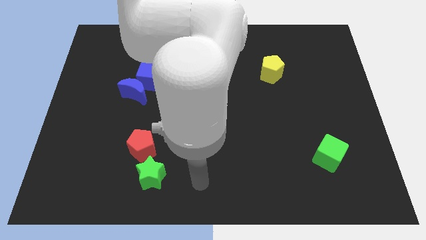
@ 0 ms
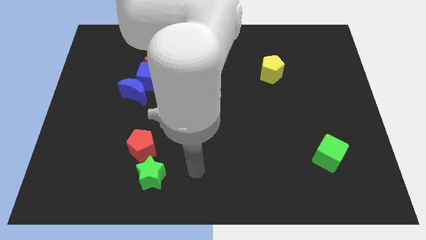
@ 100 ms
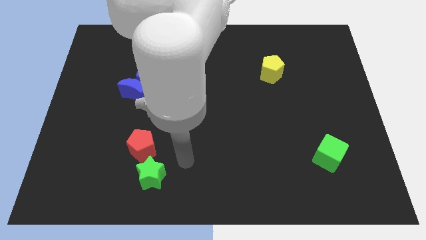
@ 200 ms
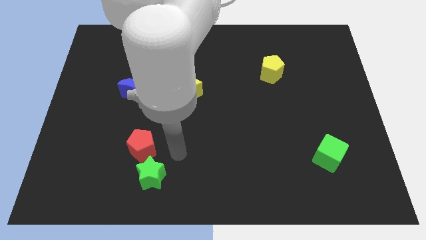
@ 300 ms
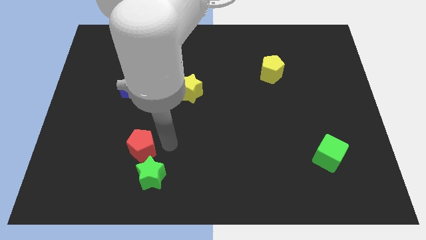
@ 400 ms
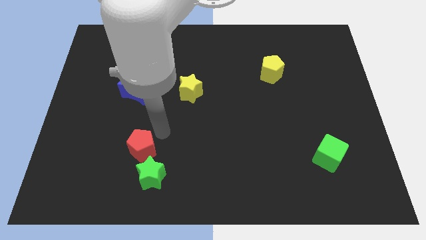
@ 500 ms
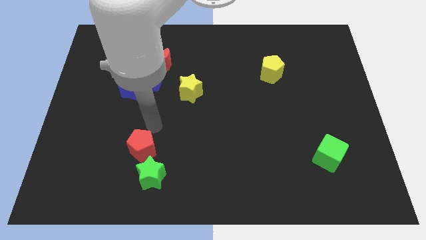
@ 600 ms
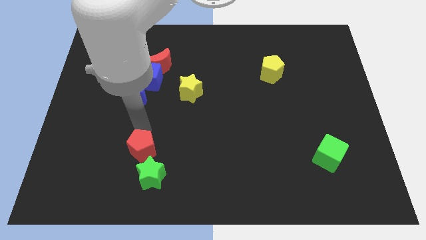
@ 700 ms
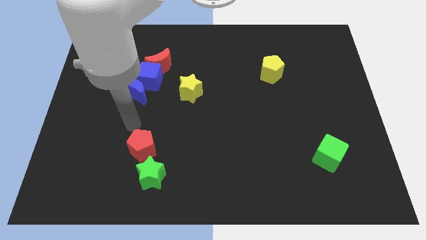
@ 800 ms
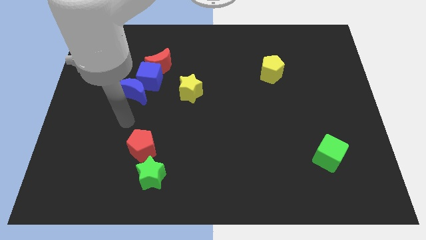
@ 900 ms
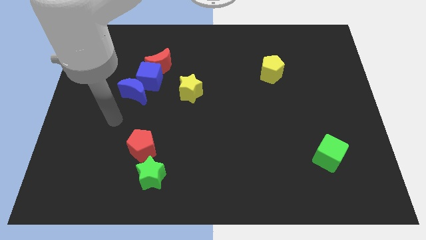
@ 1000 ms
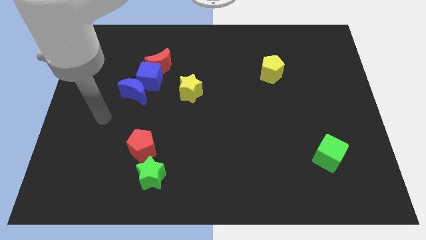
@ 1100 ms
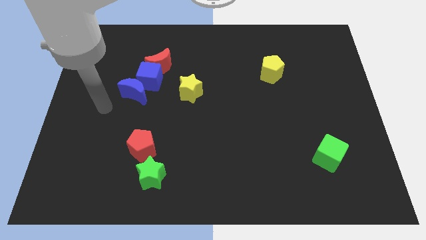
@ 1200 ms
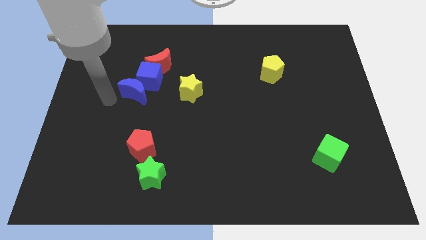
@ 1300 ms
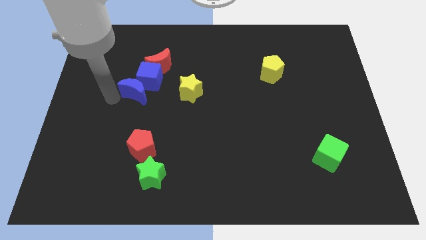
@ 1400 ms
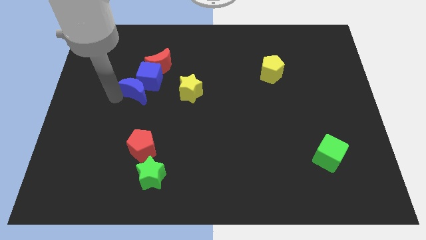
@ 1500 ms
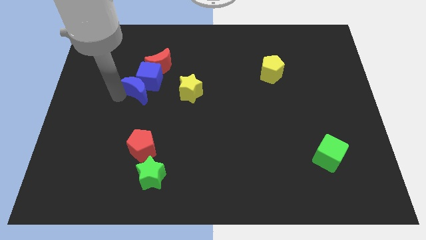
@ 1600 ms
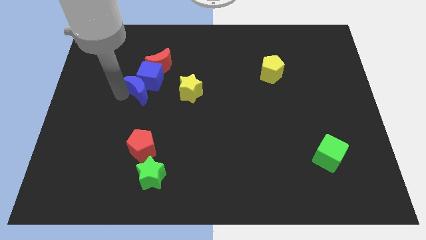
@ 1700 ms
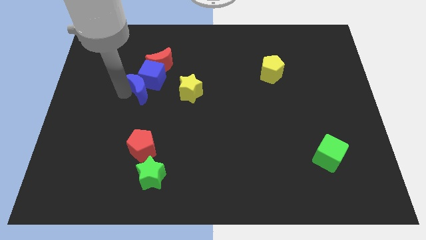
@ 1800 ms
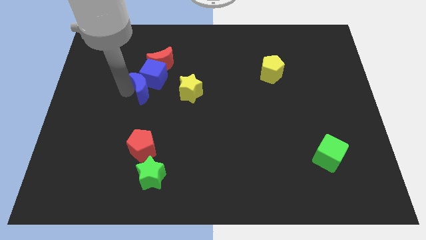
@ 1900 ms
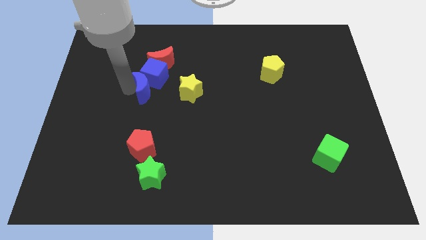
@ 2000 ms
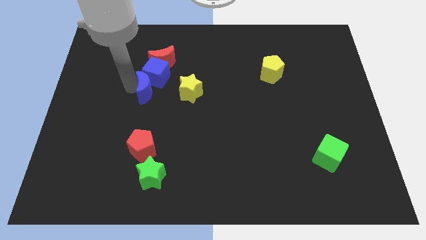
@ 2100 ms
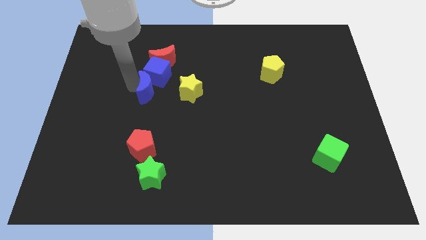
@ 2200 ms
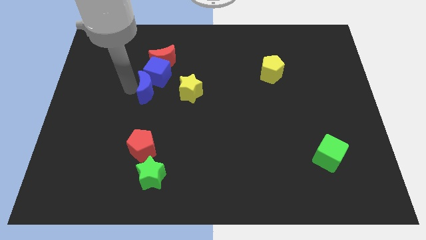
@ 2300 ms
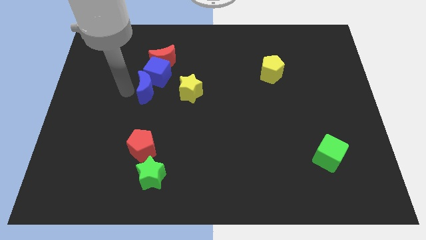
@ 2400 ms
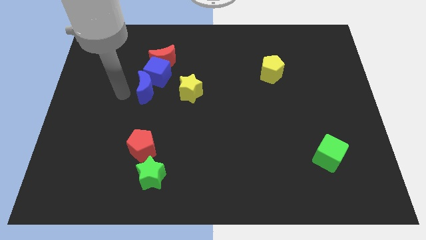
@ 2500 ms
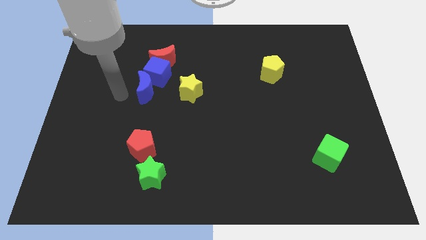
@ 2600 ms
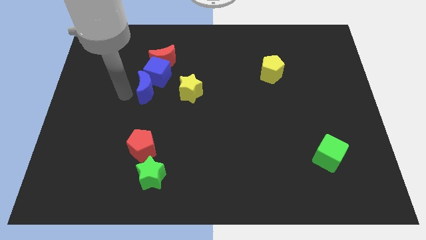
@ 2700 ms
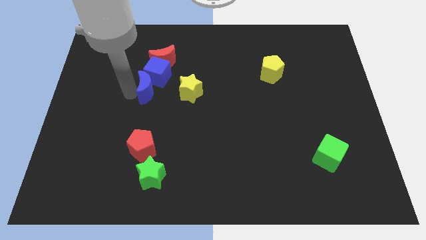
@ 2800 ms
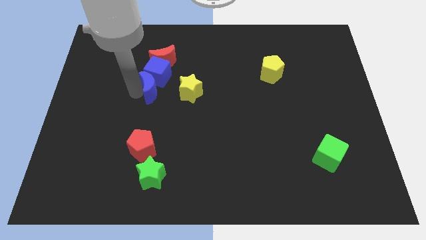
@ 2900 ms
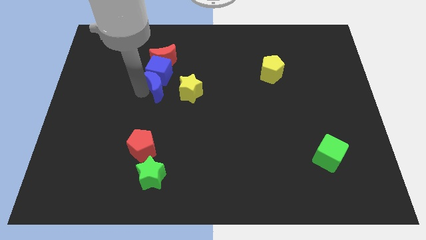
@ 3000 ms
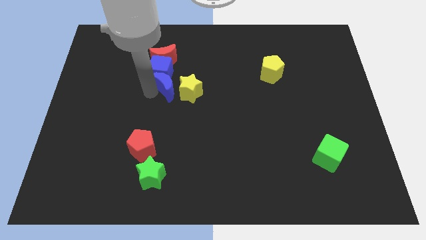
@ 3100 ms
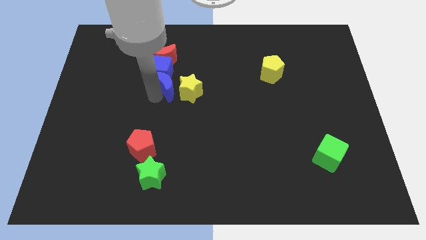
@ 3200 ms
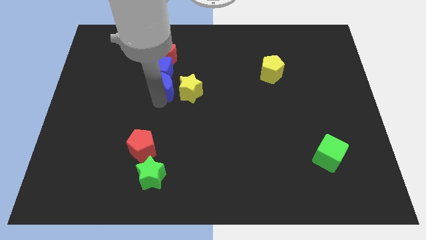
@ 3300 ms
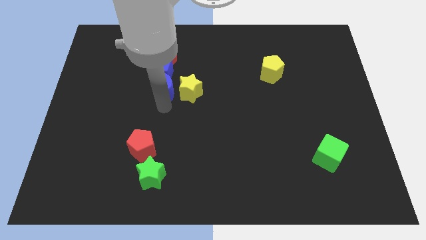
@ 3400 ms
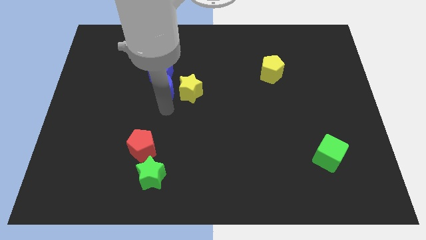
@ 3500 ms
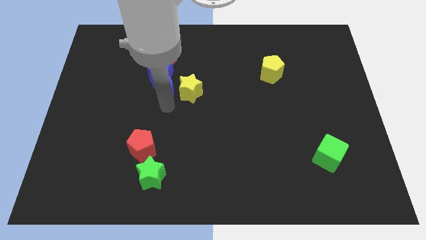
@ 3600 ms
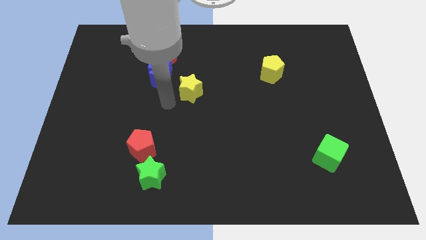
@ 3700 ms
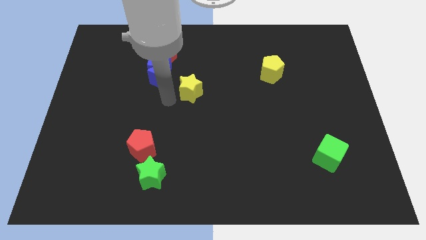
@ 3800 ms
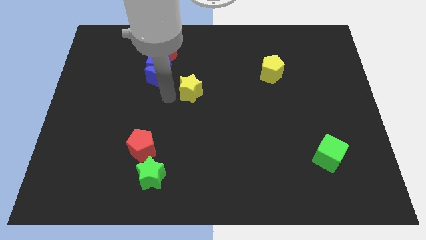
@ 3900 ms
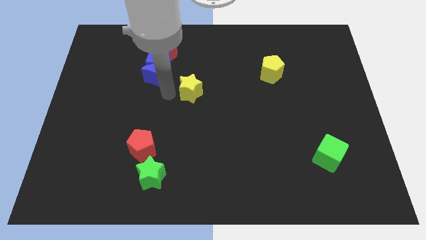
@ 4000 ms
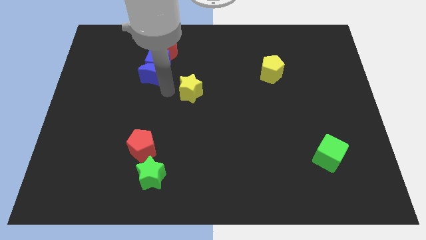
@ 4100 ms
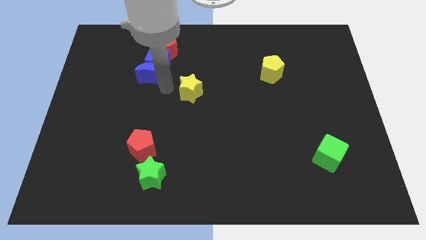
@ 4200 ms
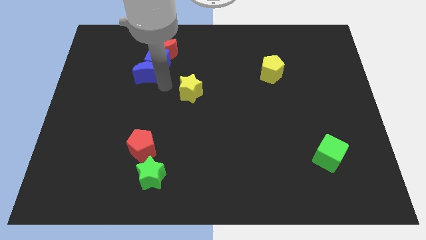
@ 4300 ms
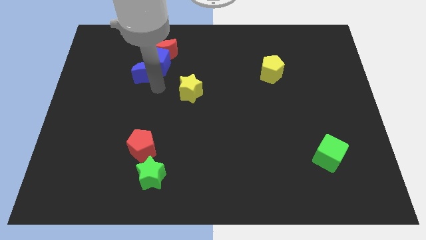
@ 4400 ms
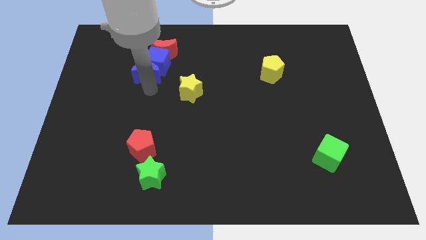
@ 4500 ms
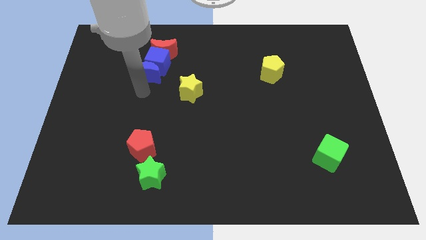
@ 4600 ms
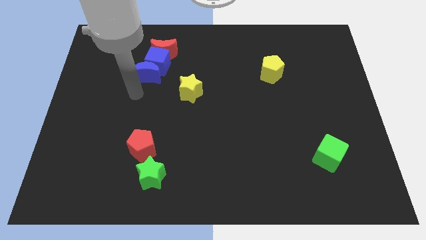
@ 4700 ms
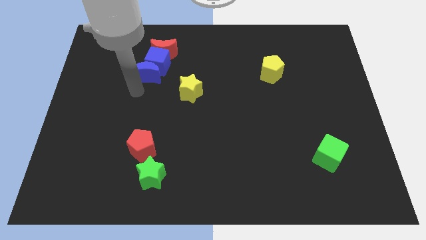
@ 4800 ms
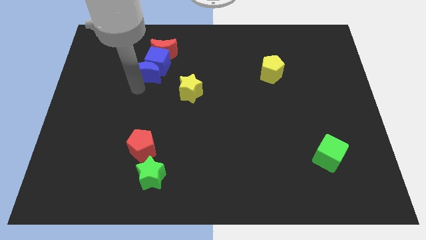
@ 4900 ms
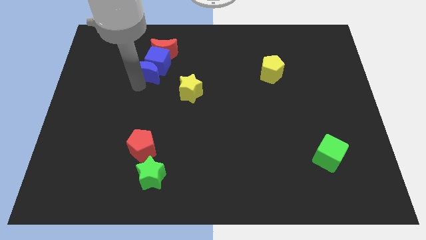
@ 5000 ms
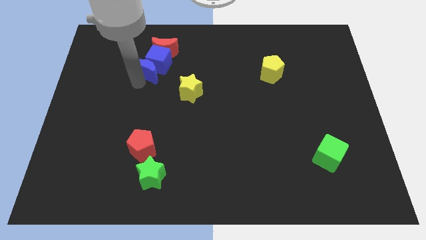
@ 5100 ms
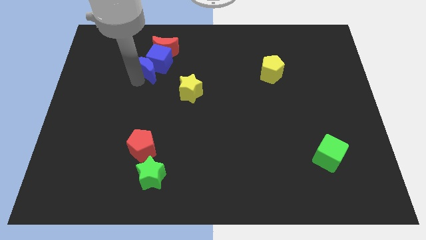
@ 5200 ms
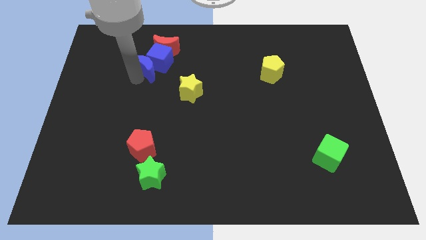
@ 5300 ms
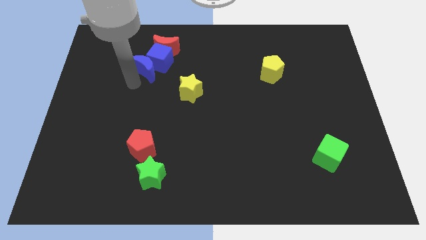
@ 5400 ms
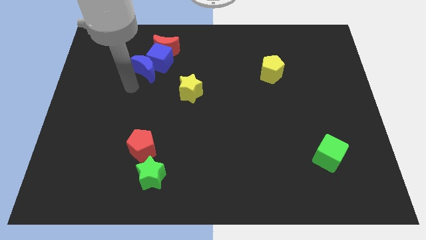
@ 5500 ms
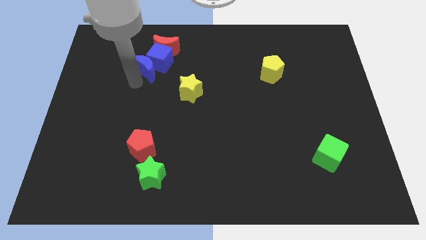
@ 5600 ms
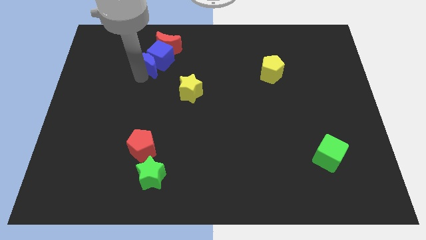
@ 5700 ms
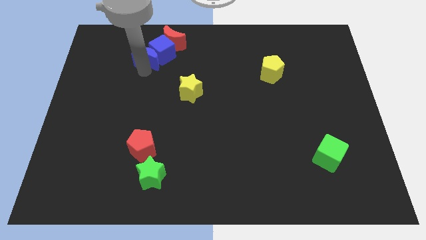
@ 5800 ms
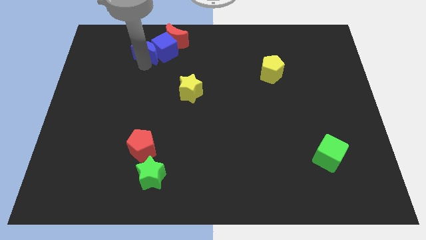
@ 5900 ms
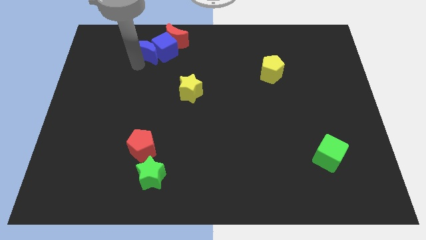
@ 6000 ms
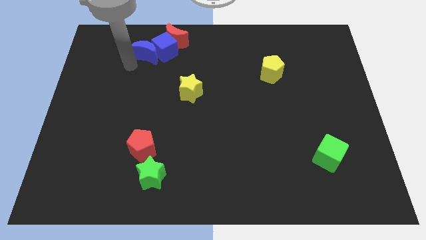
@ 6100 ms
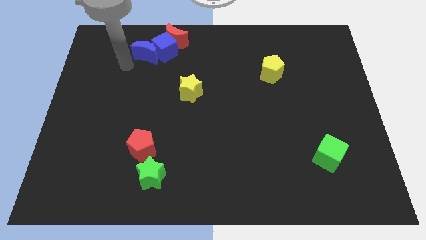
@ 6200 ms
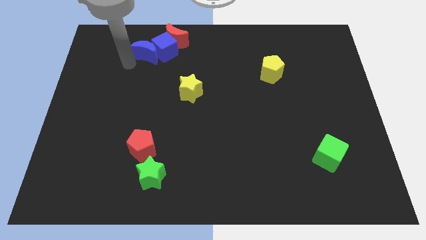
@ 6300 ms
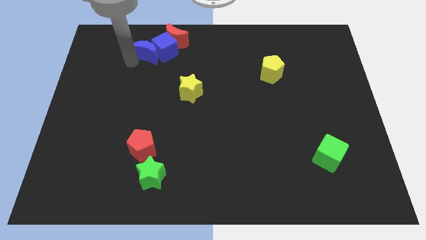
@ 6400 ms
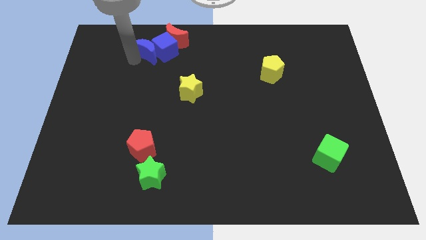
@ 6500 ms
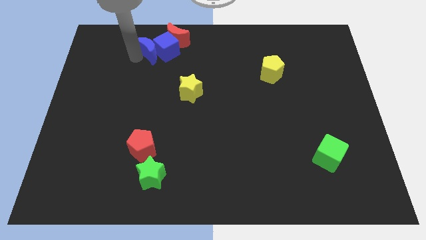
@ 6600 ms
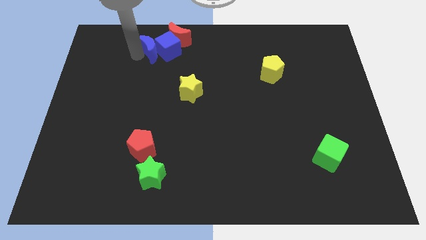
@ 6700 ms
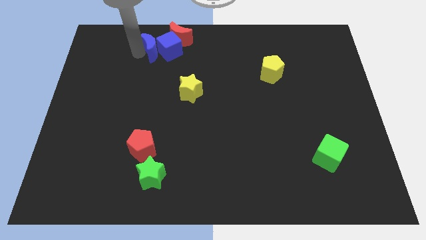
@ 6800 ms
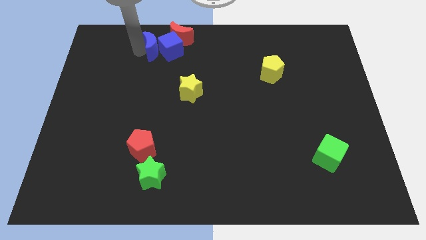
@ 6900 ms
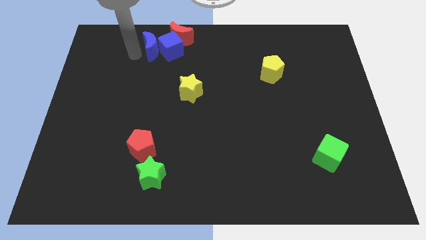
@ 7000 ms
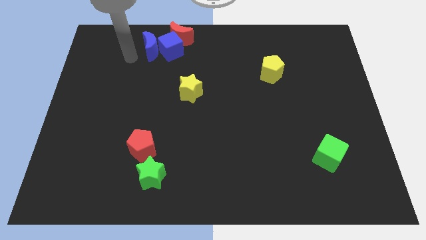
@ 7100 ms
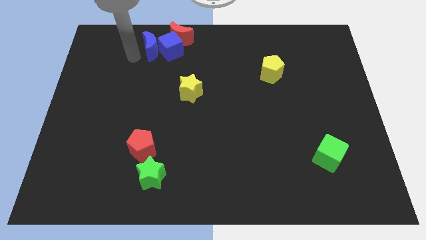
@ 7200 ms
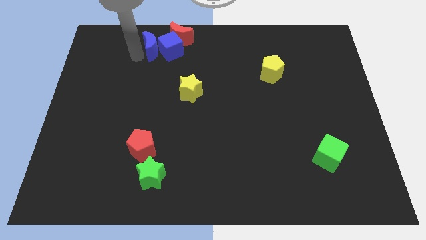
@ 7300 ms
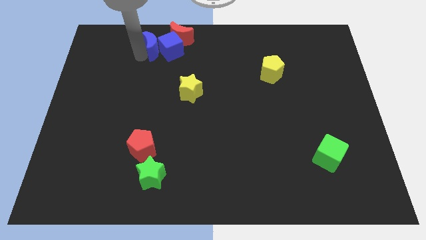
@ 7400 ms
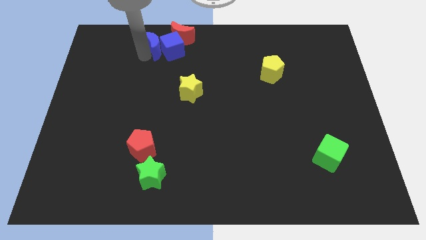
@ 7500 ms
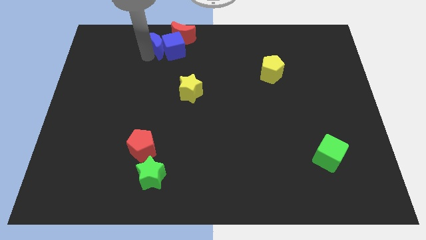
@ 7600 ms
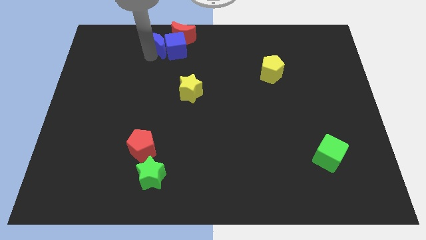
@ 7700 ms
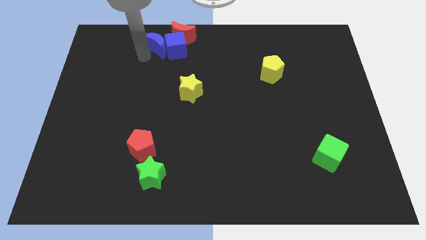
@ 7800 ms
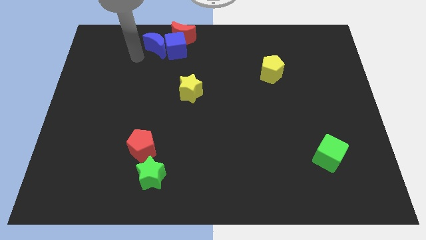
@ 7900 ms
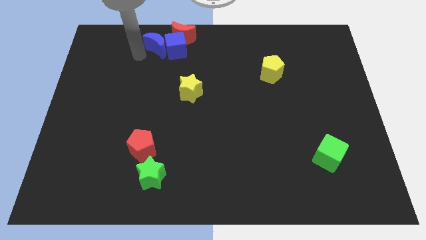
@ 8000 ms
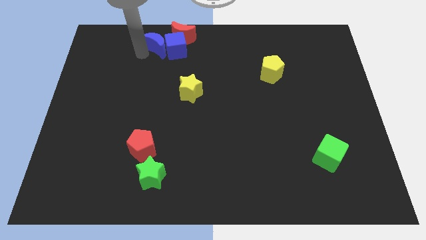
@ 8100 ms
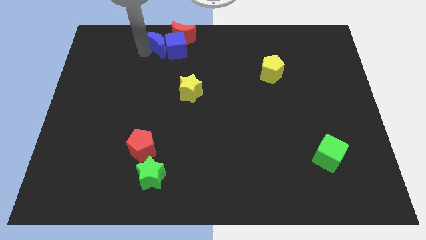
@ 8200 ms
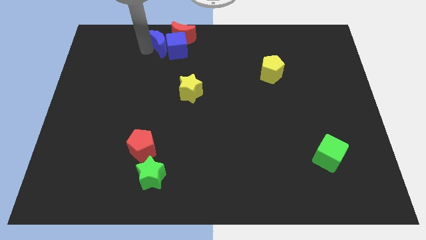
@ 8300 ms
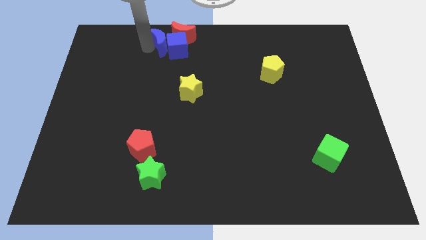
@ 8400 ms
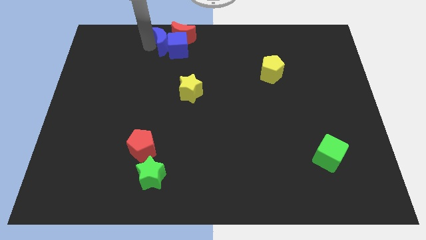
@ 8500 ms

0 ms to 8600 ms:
push the blue moon next to the red moon
